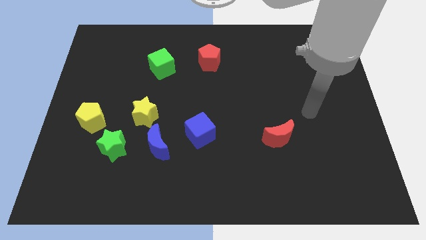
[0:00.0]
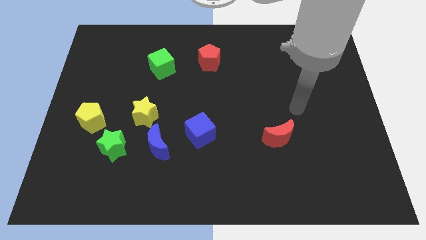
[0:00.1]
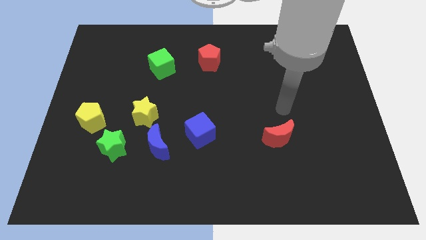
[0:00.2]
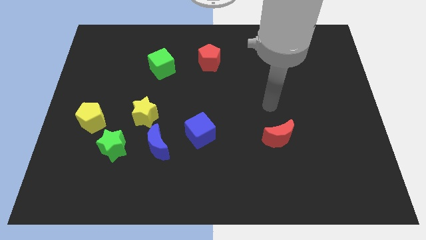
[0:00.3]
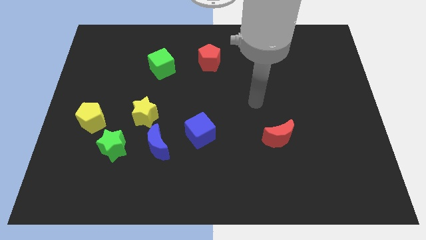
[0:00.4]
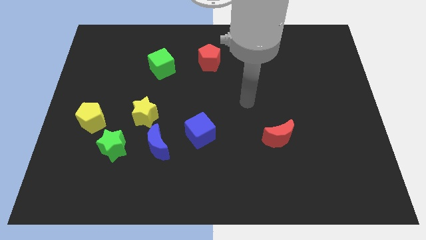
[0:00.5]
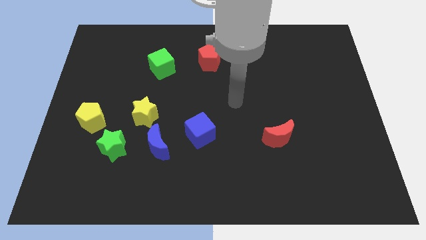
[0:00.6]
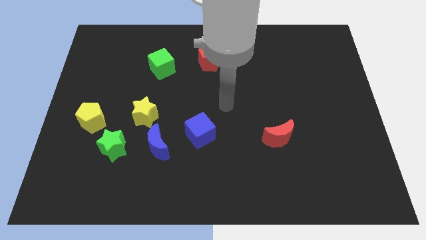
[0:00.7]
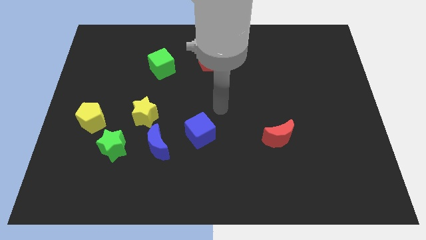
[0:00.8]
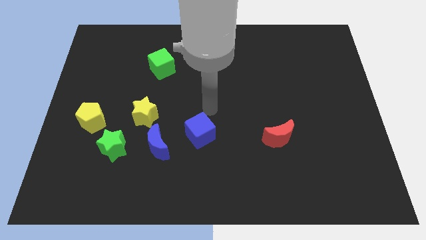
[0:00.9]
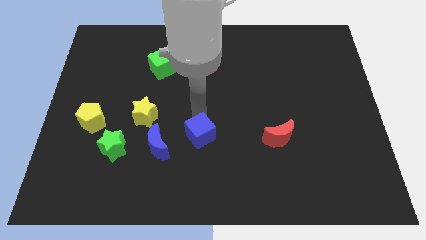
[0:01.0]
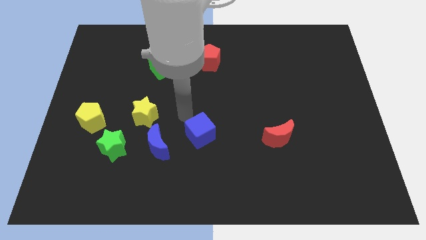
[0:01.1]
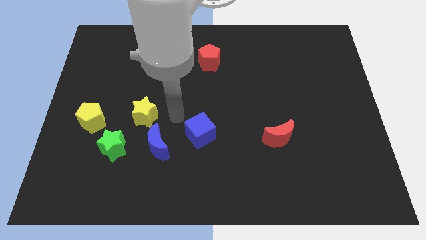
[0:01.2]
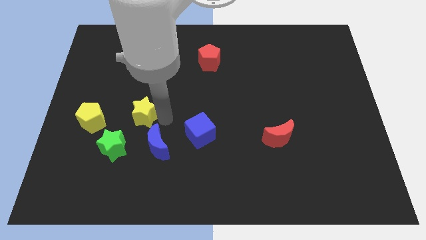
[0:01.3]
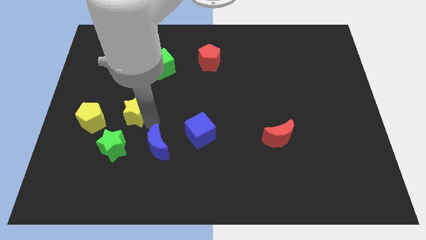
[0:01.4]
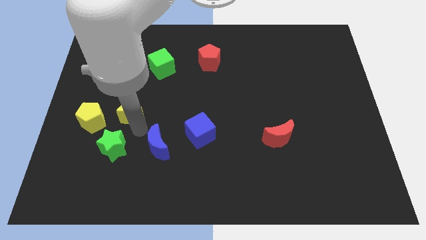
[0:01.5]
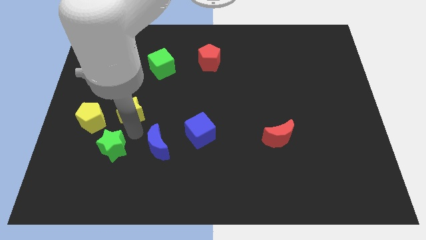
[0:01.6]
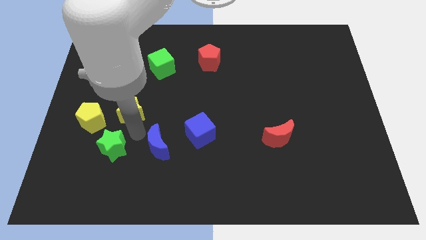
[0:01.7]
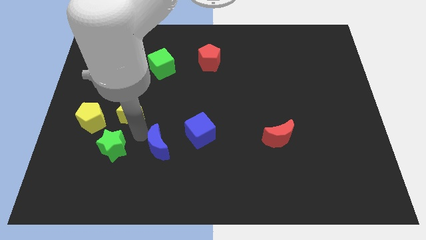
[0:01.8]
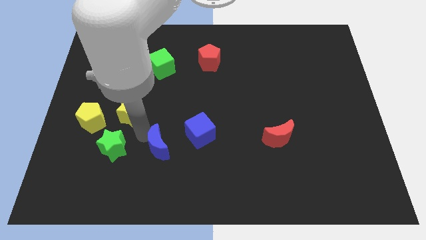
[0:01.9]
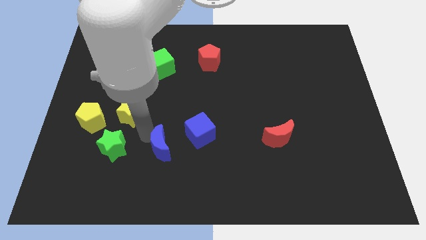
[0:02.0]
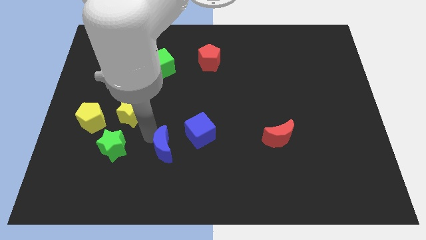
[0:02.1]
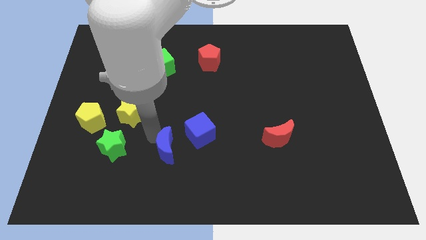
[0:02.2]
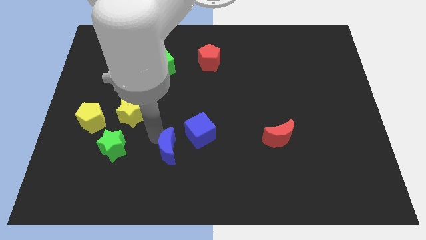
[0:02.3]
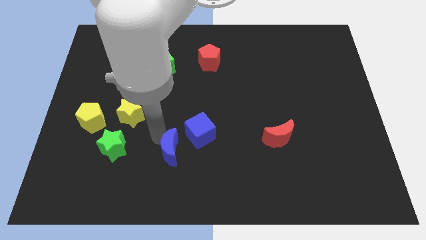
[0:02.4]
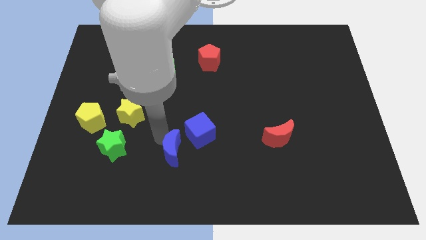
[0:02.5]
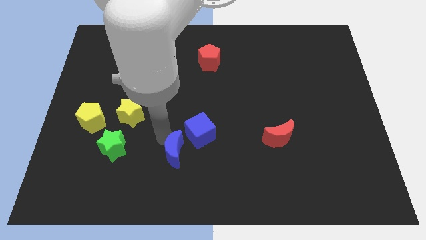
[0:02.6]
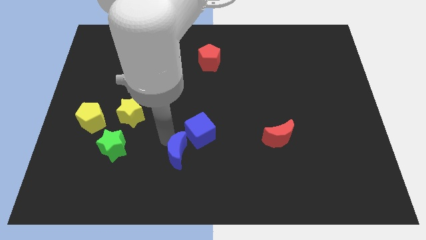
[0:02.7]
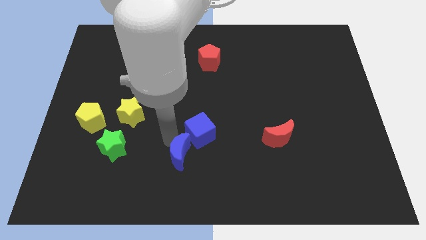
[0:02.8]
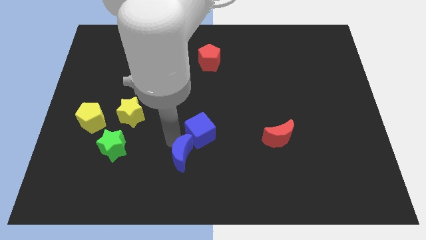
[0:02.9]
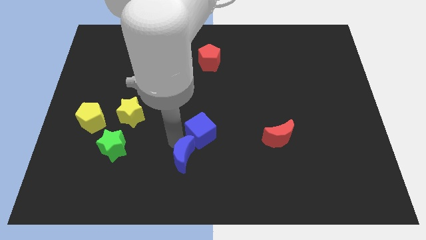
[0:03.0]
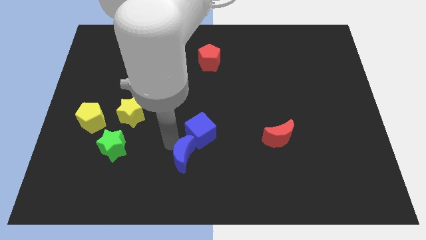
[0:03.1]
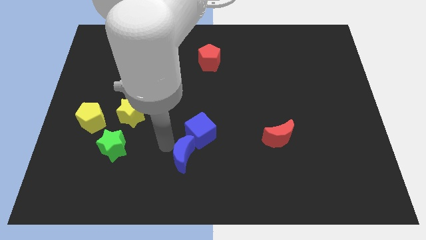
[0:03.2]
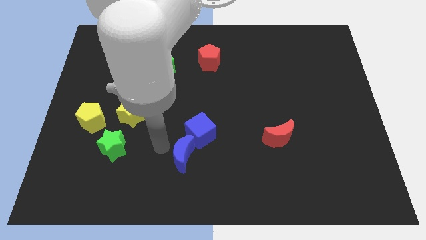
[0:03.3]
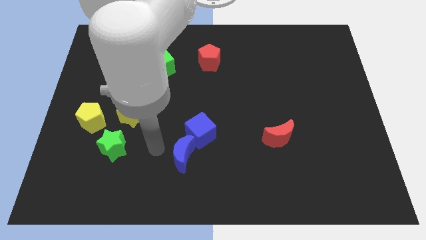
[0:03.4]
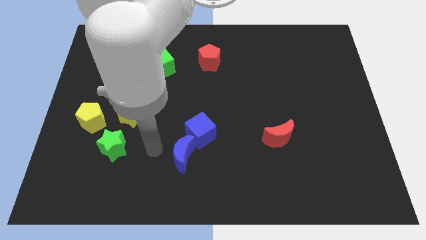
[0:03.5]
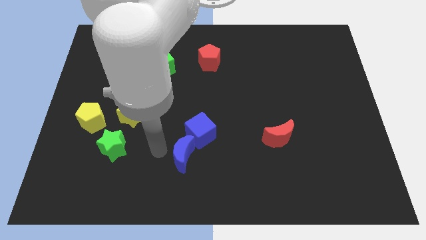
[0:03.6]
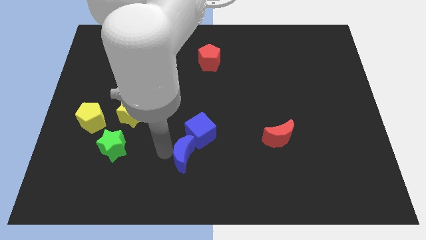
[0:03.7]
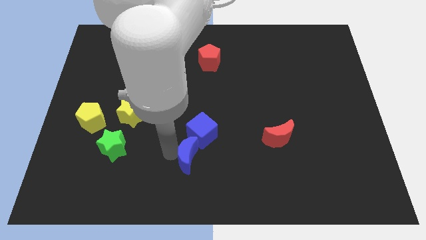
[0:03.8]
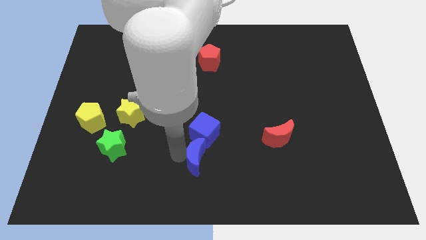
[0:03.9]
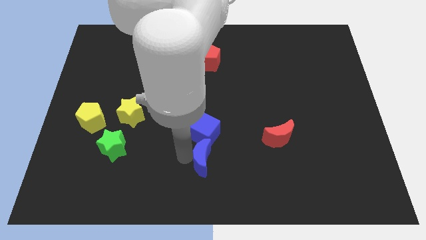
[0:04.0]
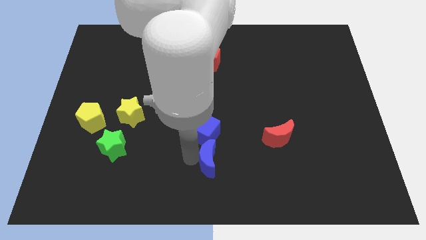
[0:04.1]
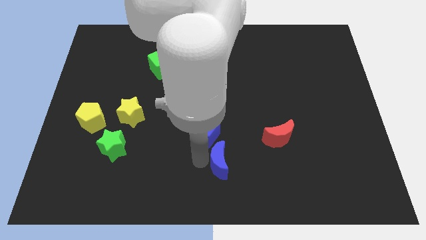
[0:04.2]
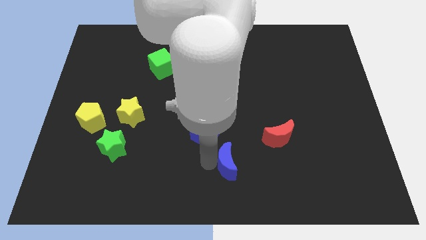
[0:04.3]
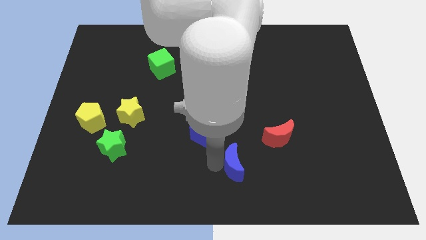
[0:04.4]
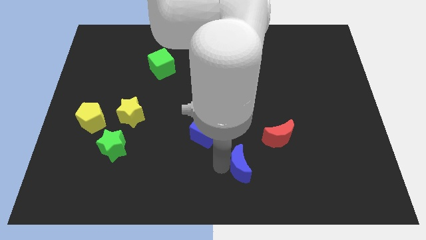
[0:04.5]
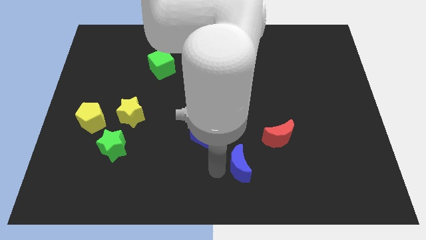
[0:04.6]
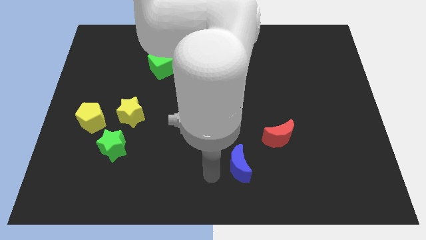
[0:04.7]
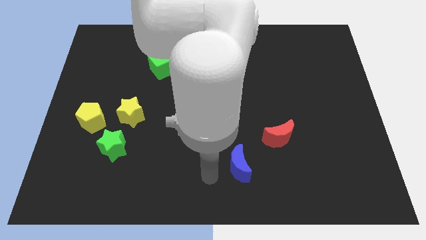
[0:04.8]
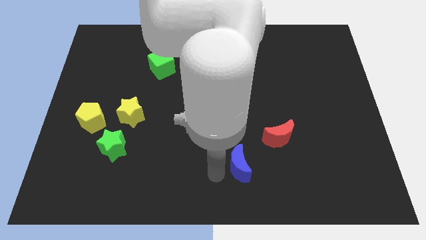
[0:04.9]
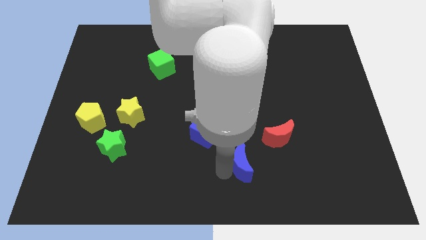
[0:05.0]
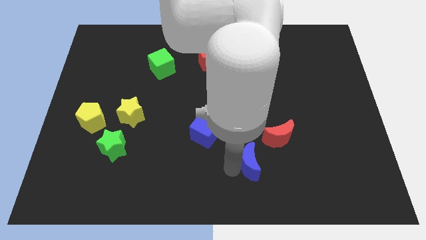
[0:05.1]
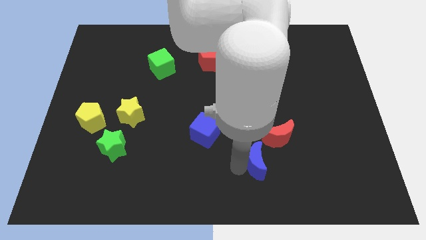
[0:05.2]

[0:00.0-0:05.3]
slide the blue moon to the right

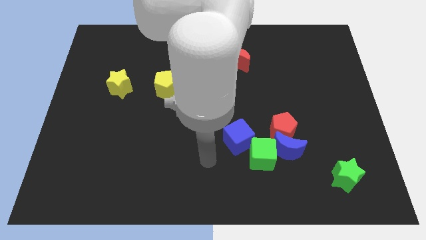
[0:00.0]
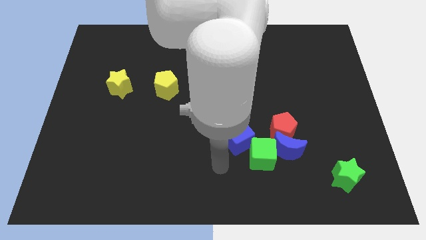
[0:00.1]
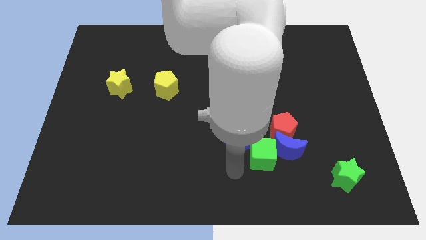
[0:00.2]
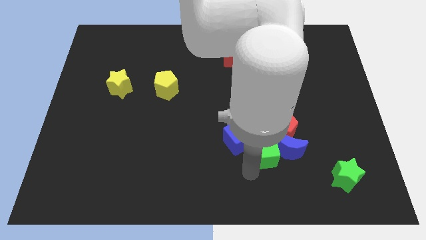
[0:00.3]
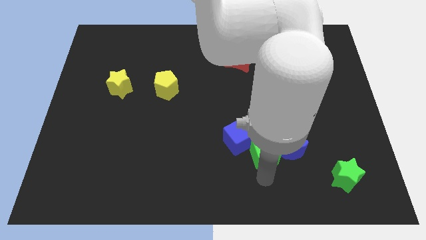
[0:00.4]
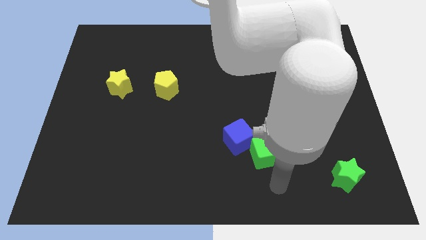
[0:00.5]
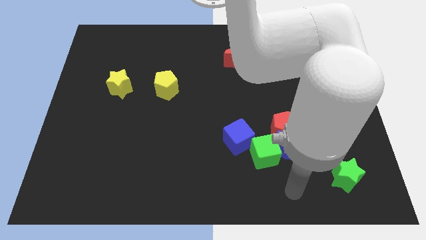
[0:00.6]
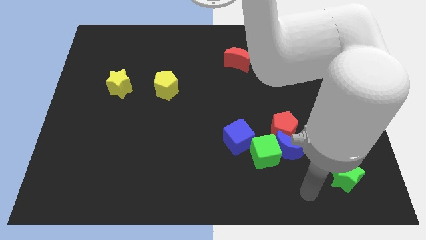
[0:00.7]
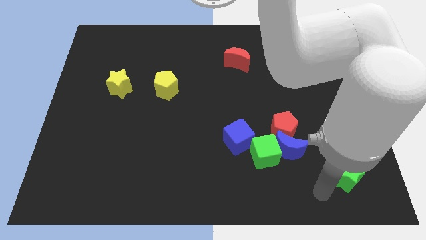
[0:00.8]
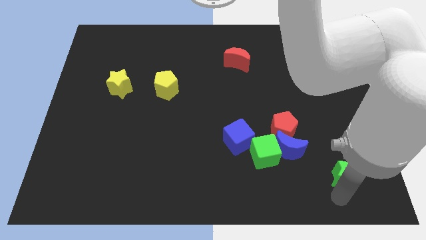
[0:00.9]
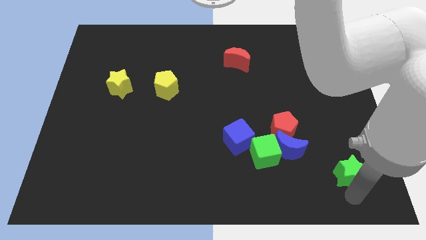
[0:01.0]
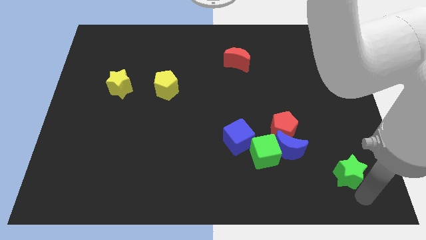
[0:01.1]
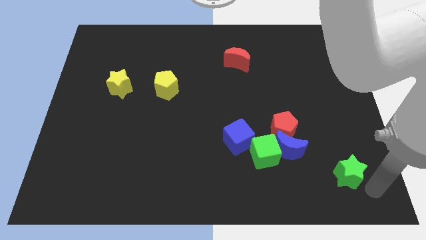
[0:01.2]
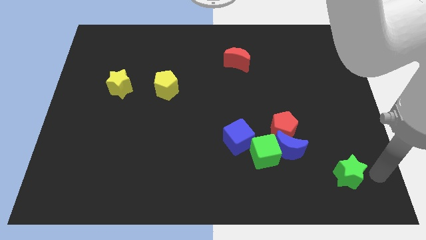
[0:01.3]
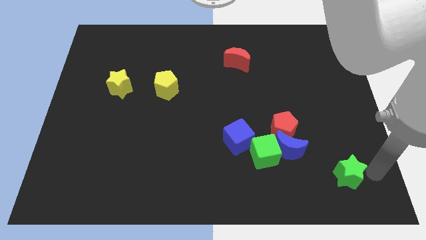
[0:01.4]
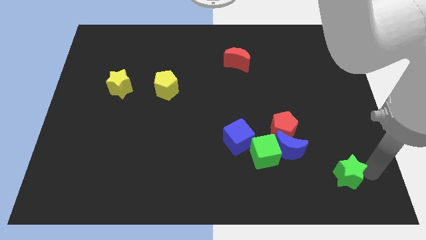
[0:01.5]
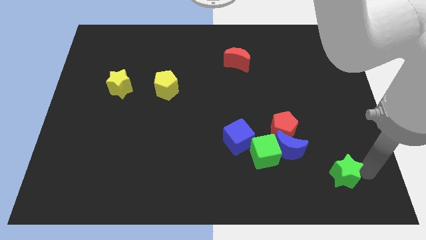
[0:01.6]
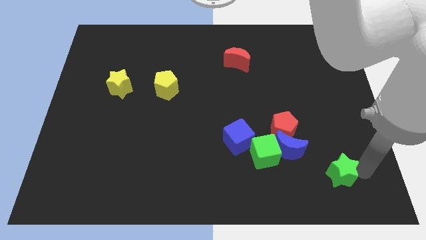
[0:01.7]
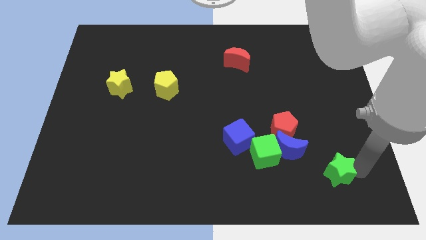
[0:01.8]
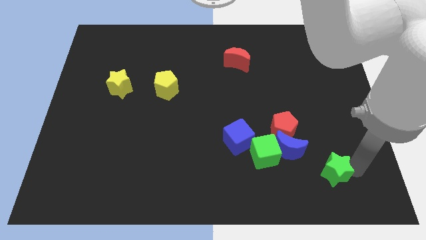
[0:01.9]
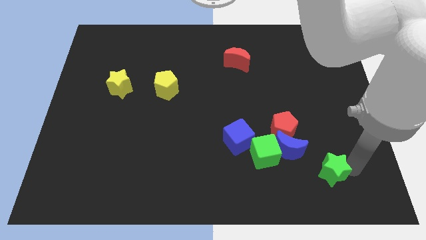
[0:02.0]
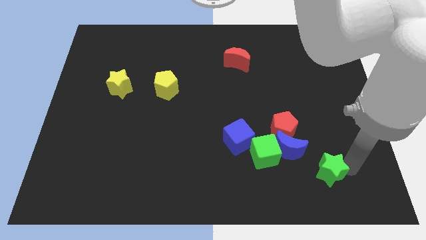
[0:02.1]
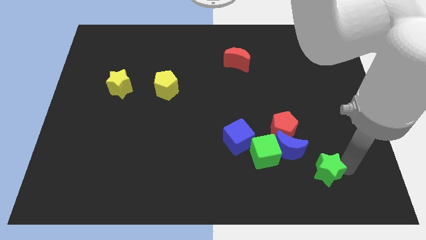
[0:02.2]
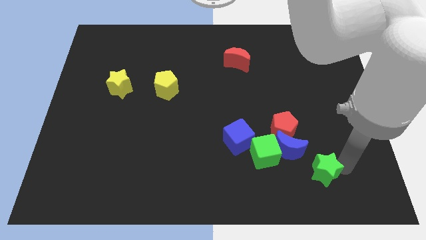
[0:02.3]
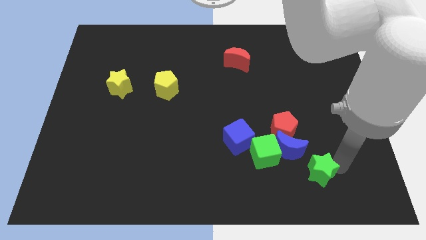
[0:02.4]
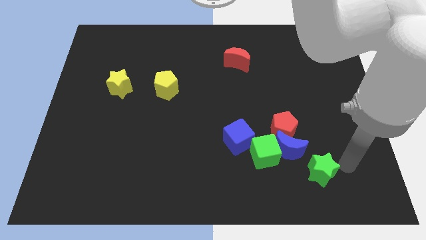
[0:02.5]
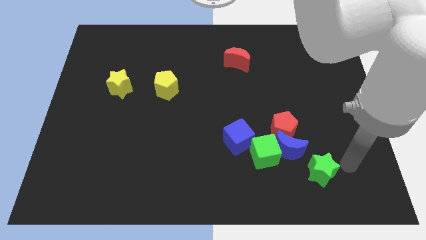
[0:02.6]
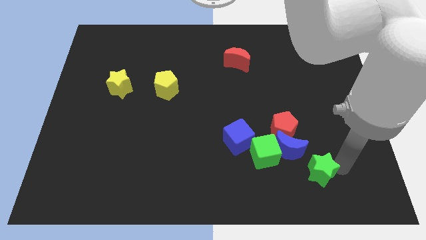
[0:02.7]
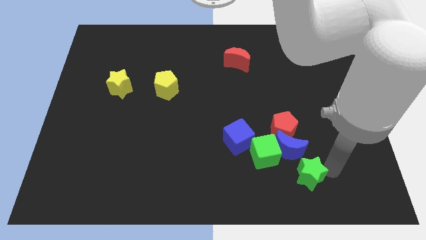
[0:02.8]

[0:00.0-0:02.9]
slide the green star a bit to the left
